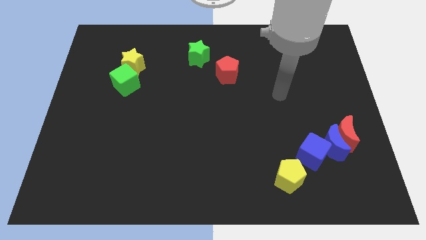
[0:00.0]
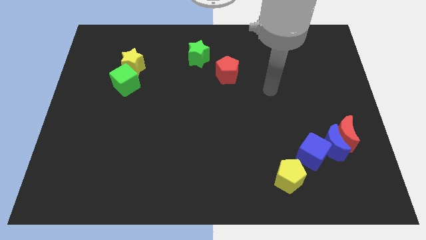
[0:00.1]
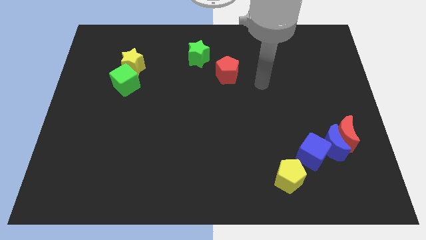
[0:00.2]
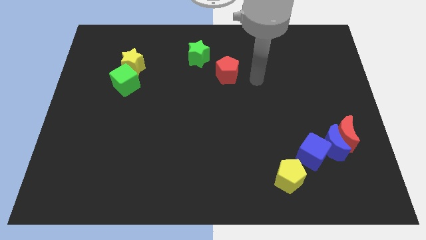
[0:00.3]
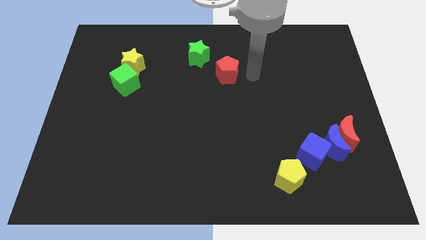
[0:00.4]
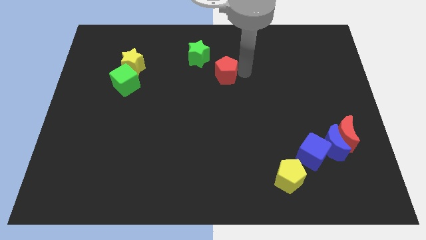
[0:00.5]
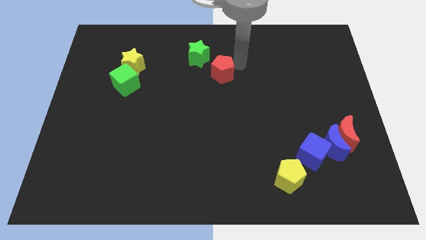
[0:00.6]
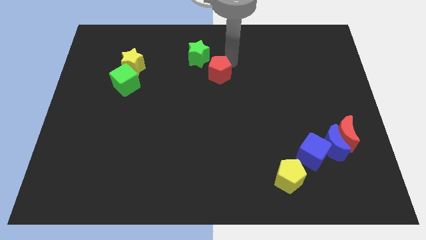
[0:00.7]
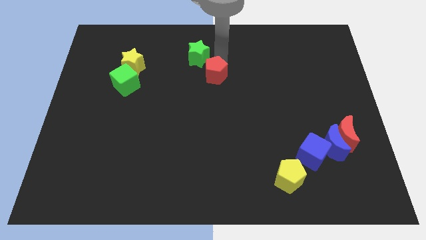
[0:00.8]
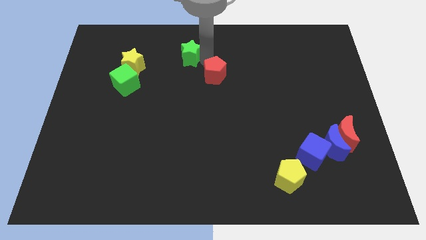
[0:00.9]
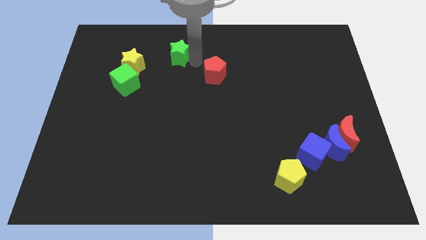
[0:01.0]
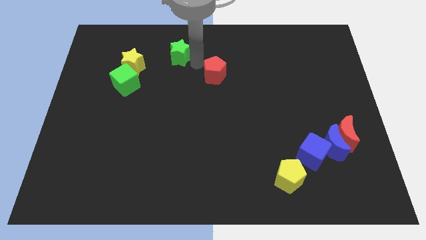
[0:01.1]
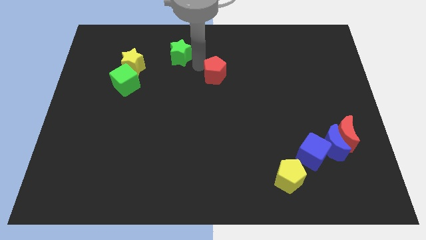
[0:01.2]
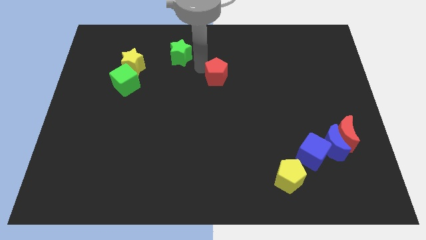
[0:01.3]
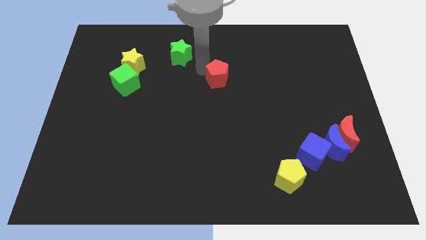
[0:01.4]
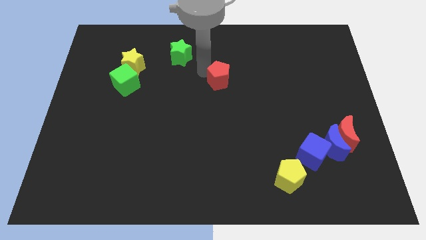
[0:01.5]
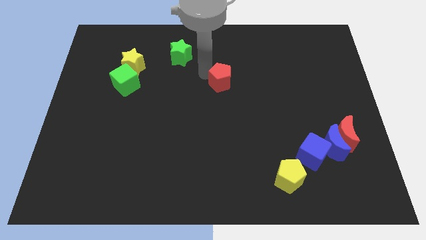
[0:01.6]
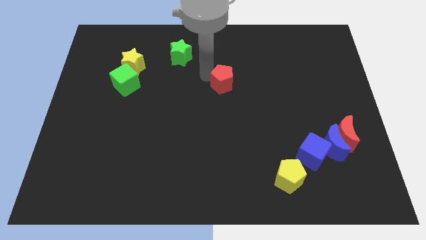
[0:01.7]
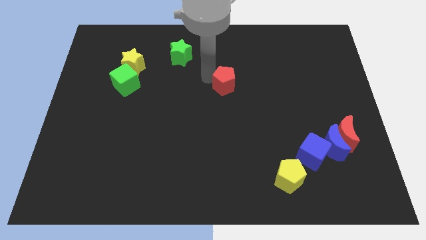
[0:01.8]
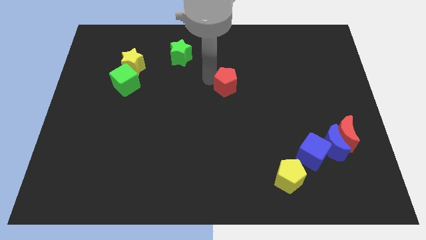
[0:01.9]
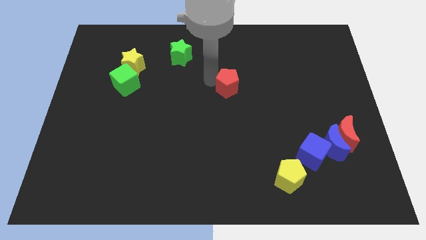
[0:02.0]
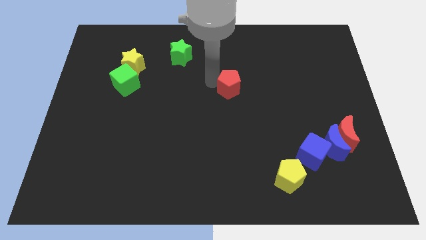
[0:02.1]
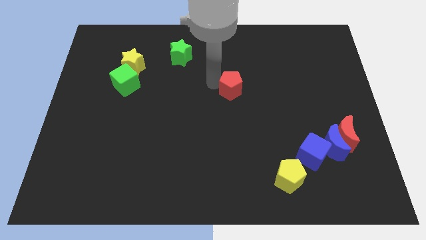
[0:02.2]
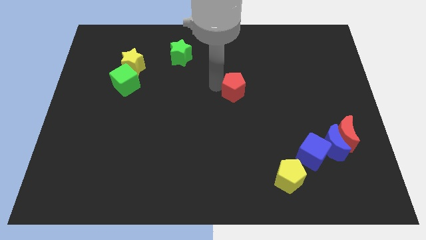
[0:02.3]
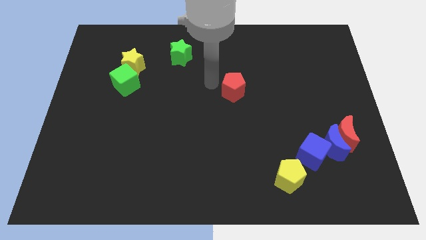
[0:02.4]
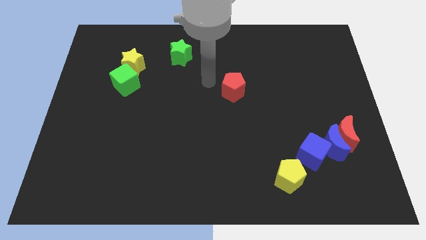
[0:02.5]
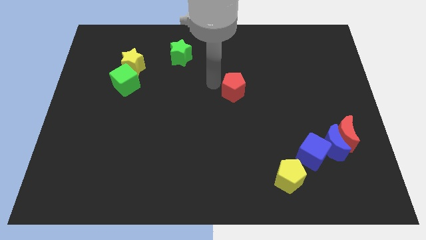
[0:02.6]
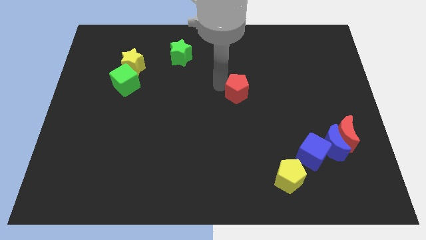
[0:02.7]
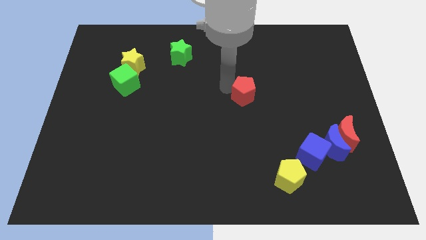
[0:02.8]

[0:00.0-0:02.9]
slide the red pentagon diagonally downwards and right somewhat

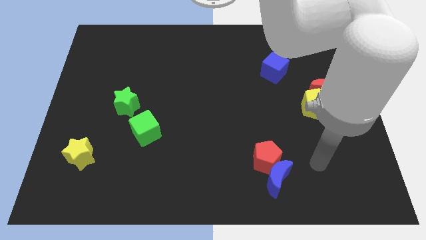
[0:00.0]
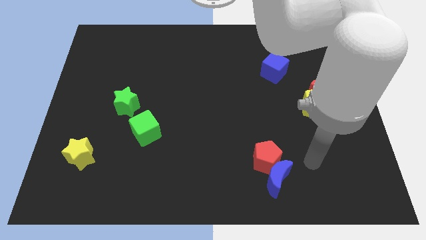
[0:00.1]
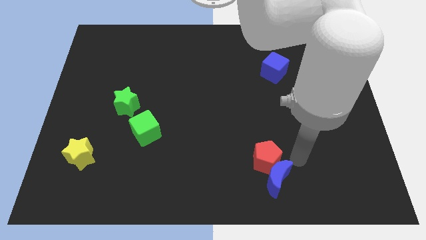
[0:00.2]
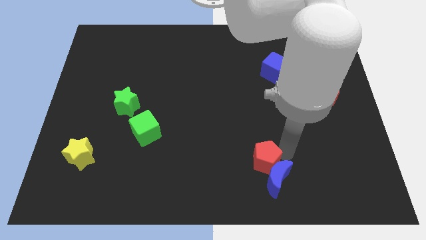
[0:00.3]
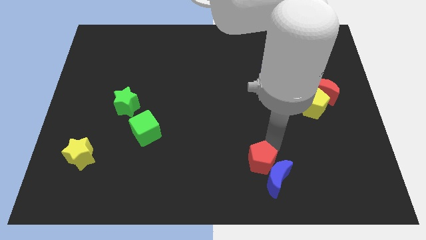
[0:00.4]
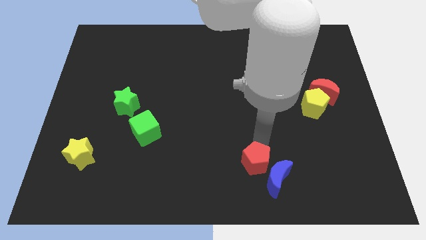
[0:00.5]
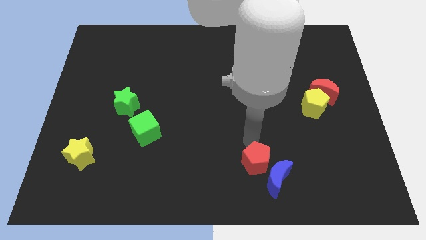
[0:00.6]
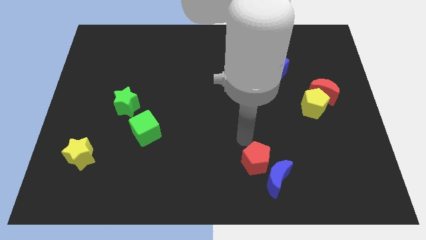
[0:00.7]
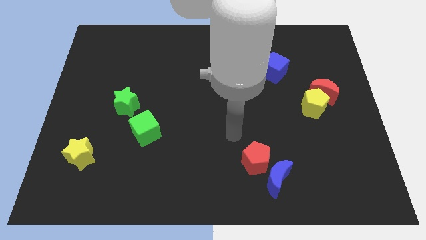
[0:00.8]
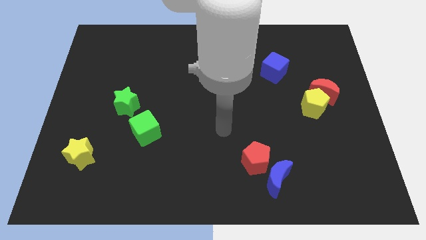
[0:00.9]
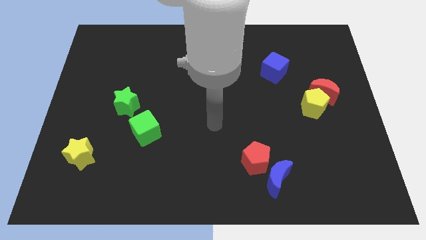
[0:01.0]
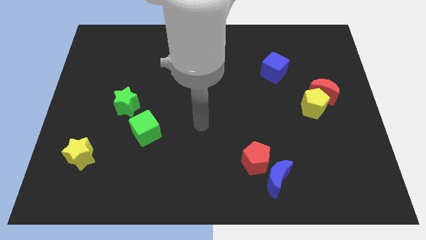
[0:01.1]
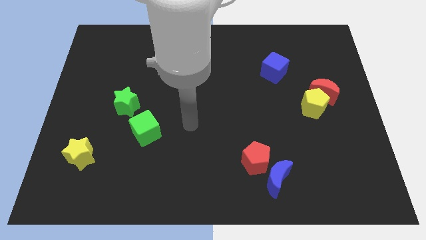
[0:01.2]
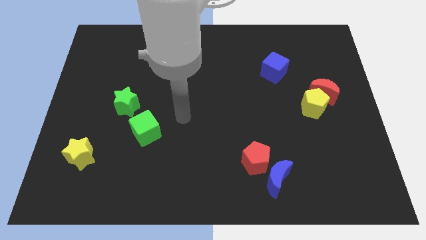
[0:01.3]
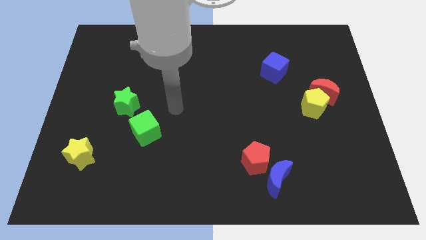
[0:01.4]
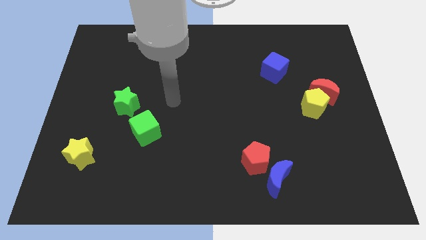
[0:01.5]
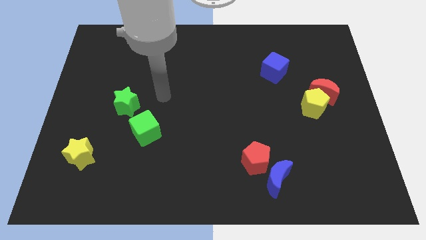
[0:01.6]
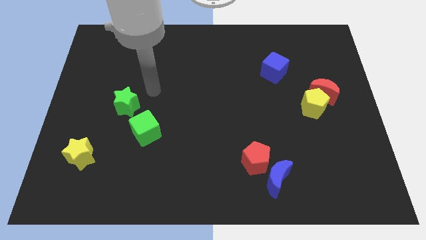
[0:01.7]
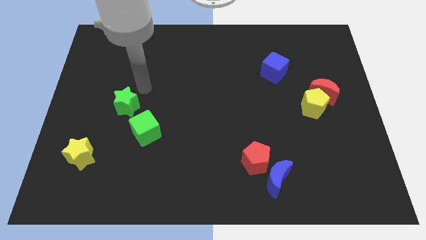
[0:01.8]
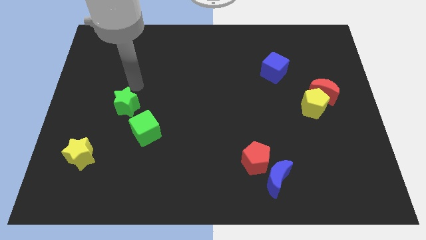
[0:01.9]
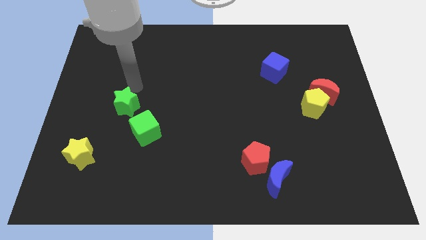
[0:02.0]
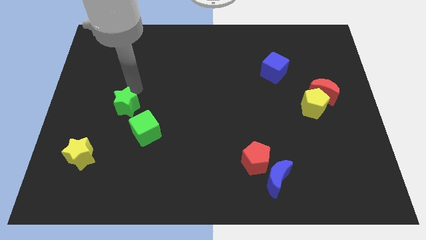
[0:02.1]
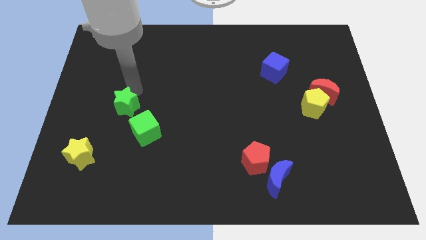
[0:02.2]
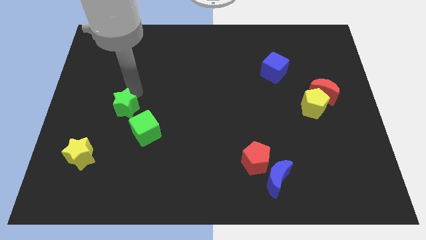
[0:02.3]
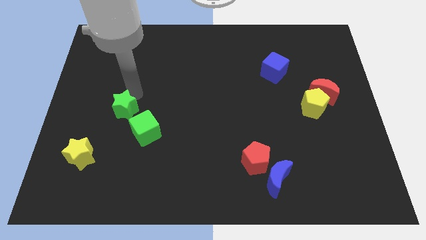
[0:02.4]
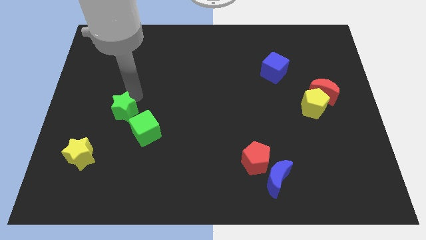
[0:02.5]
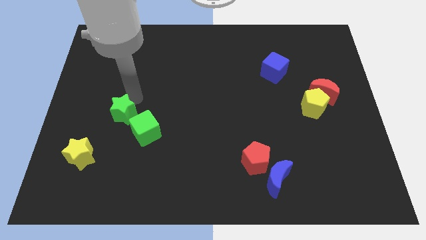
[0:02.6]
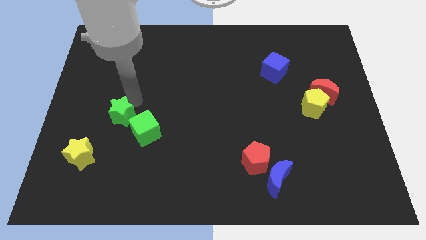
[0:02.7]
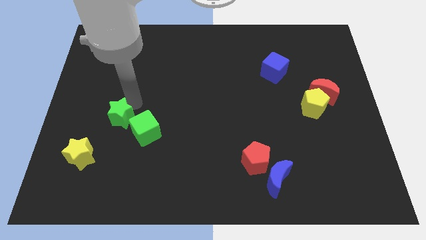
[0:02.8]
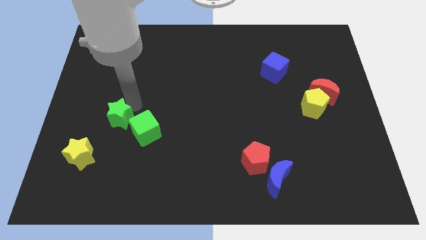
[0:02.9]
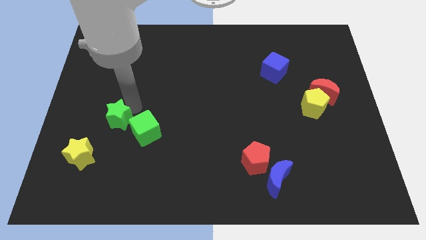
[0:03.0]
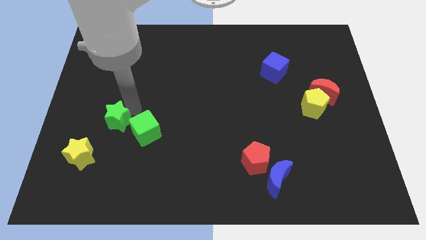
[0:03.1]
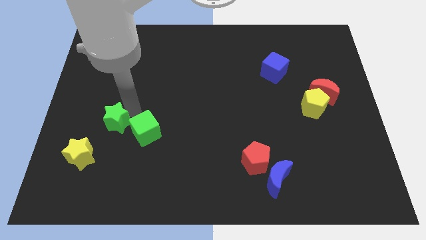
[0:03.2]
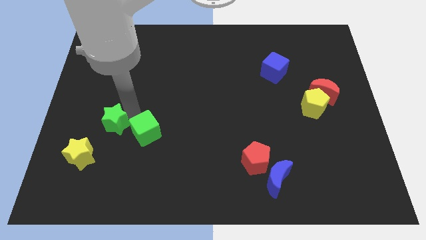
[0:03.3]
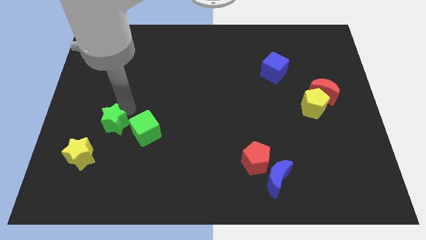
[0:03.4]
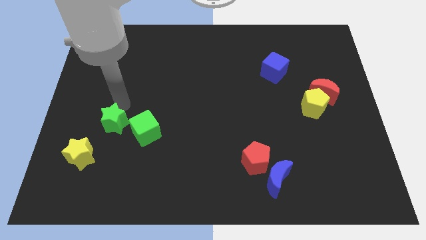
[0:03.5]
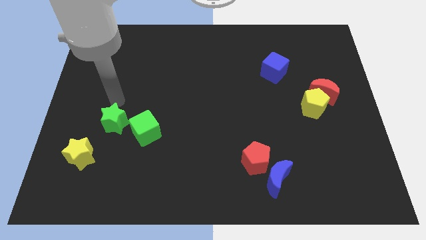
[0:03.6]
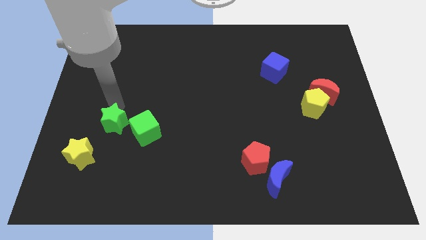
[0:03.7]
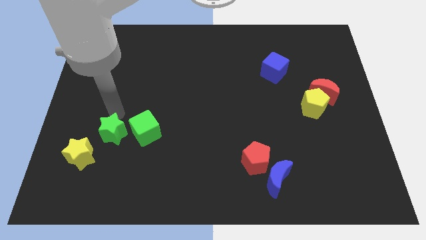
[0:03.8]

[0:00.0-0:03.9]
move the green star down somewhat

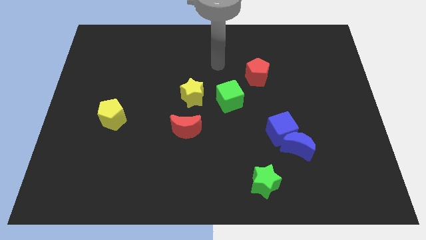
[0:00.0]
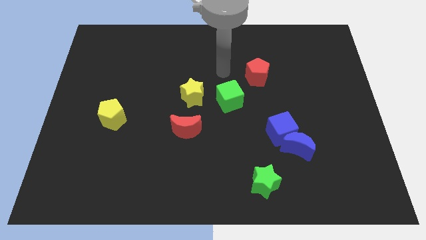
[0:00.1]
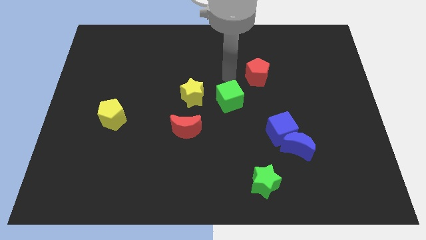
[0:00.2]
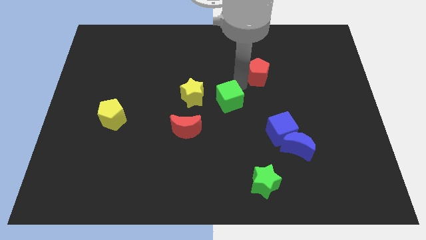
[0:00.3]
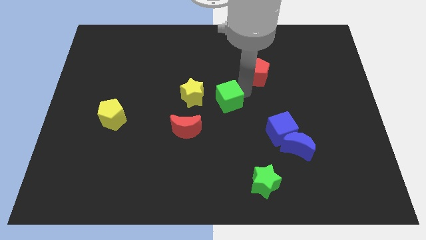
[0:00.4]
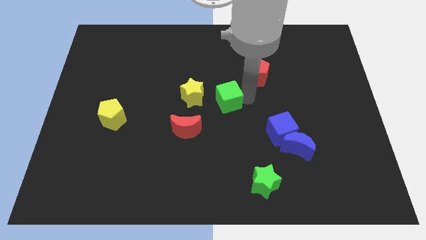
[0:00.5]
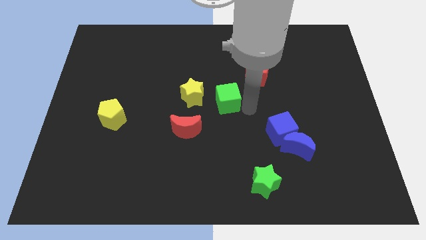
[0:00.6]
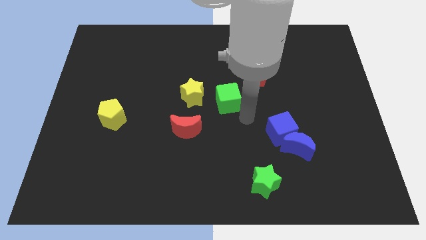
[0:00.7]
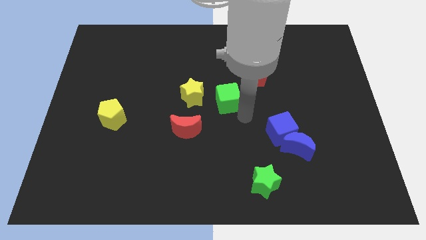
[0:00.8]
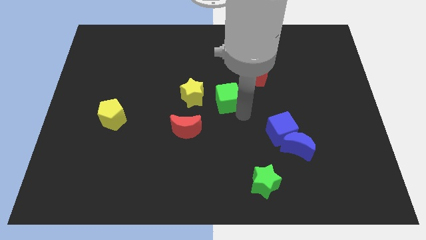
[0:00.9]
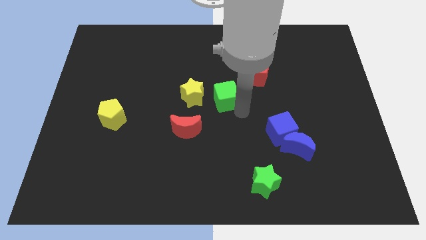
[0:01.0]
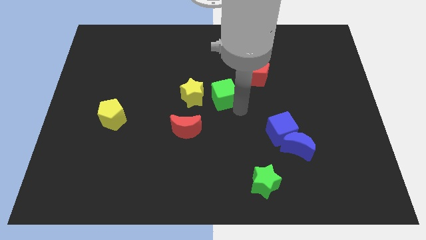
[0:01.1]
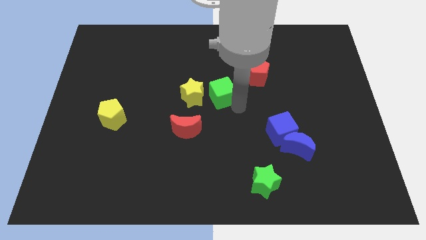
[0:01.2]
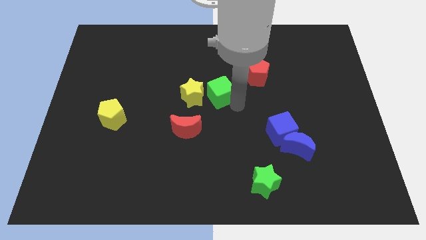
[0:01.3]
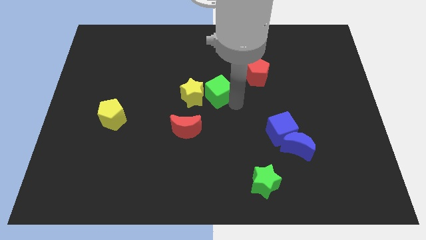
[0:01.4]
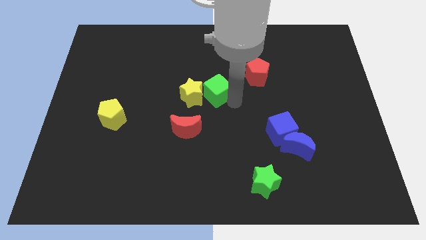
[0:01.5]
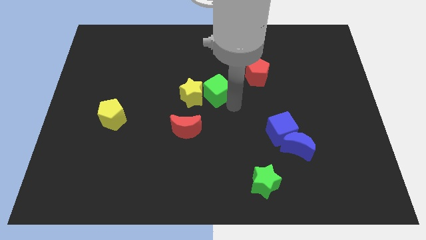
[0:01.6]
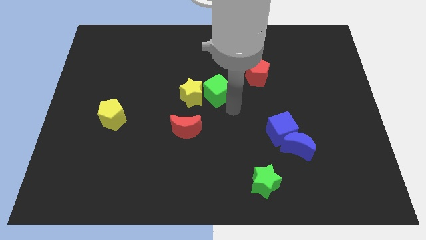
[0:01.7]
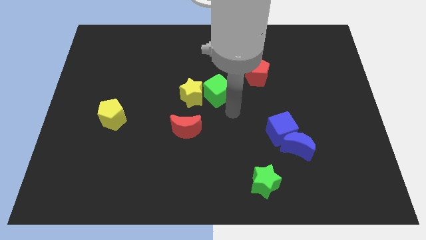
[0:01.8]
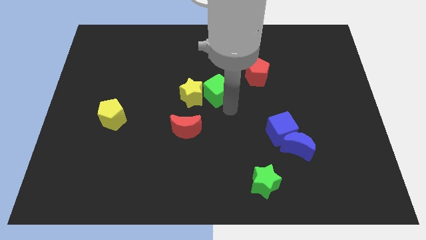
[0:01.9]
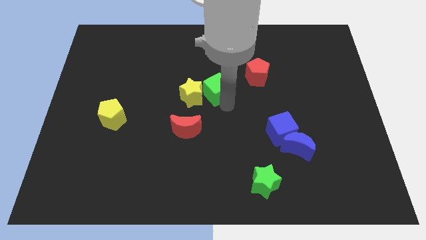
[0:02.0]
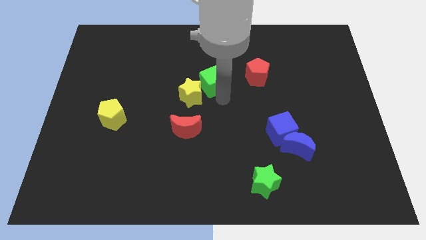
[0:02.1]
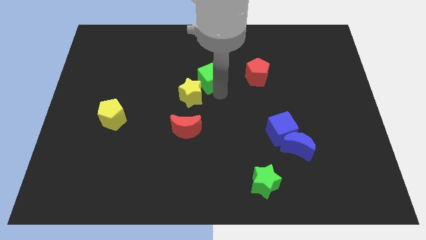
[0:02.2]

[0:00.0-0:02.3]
slightly move the green cube up and then to the left
